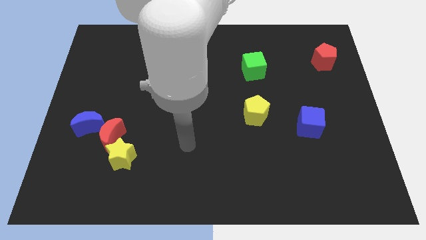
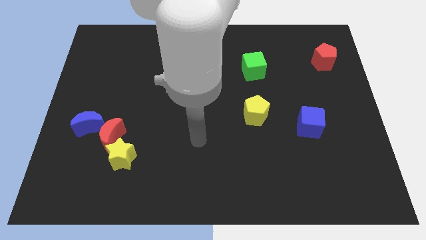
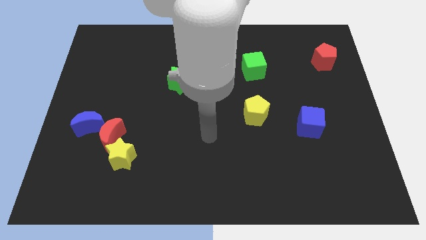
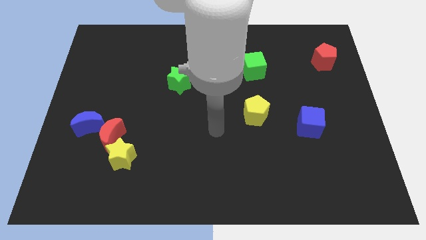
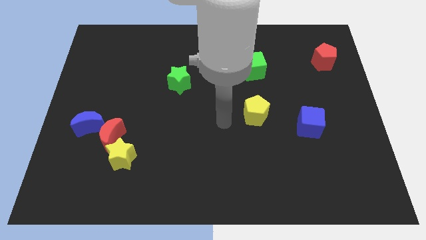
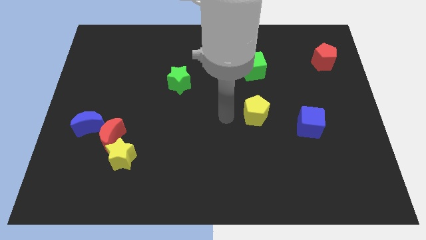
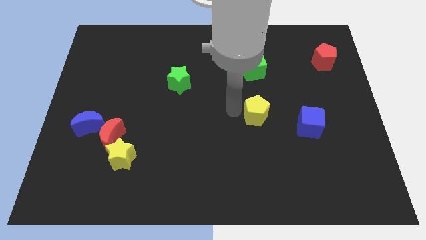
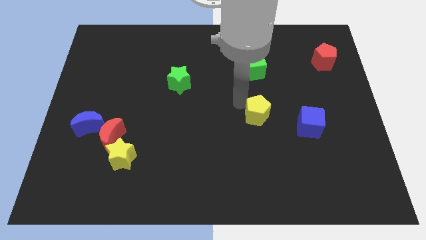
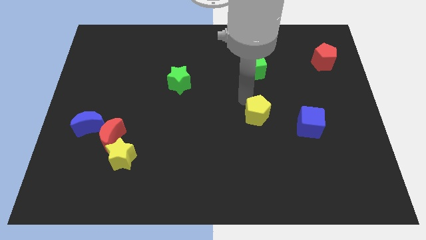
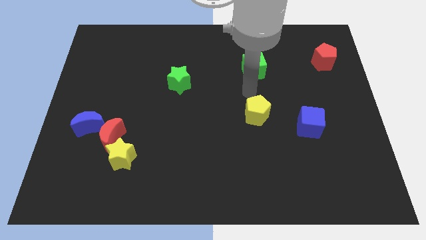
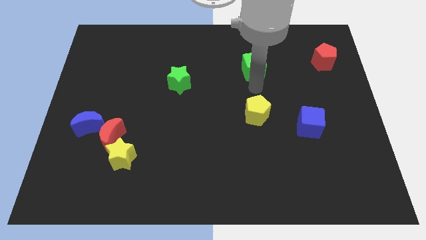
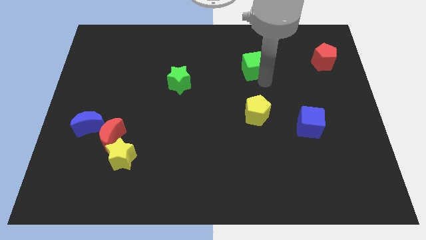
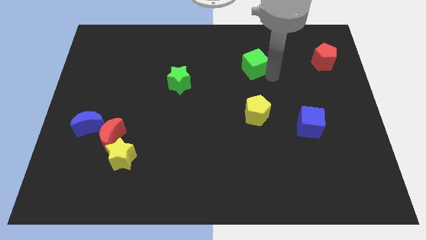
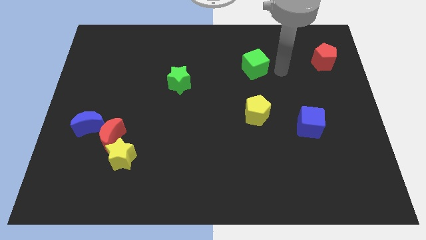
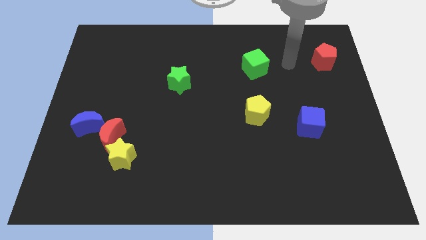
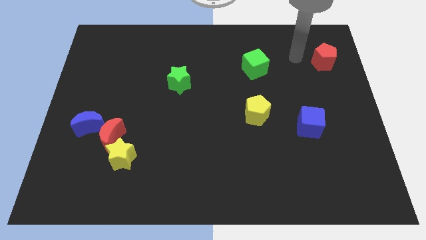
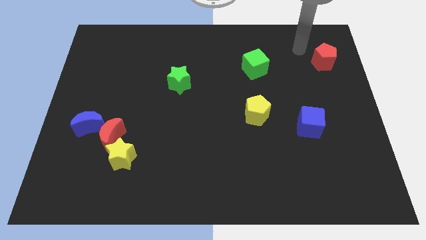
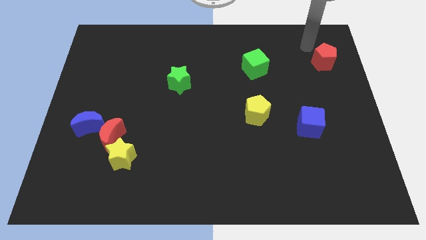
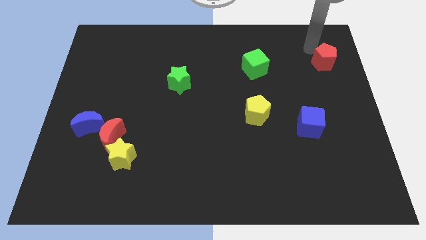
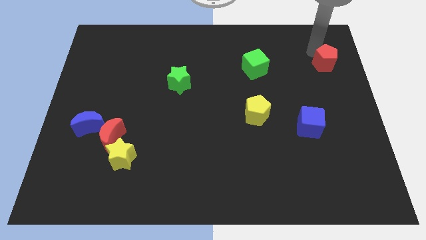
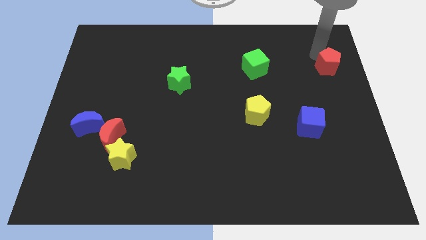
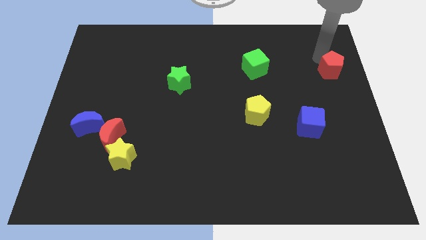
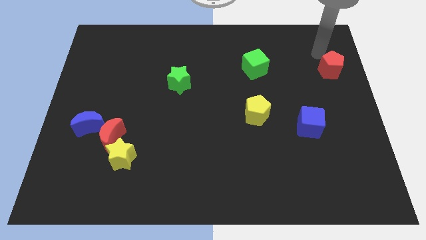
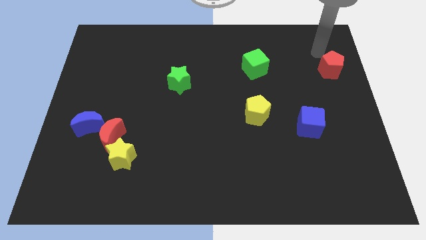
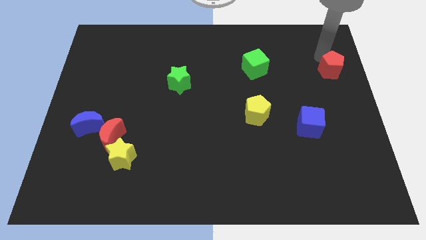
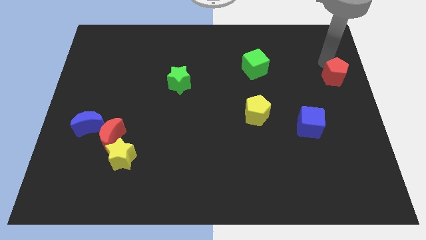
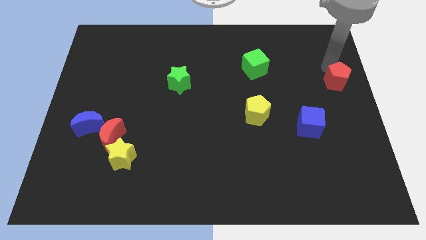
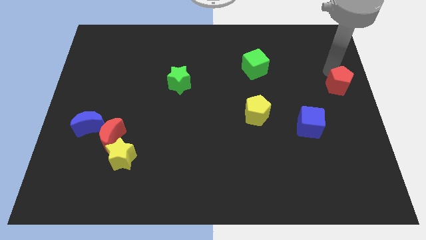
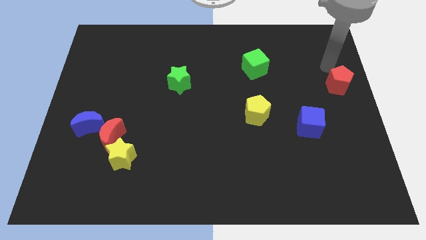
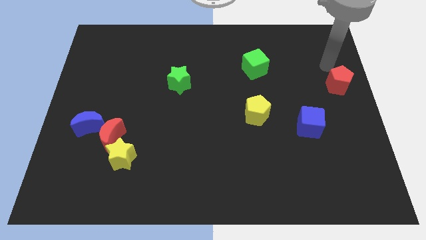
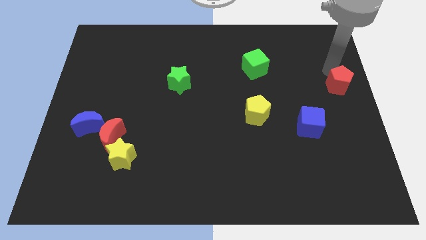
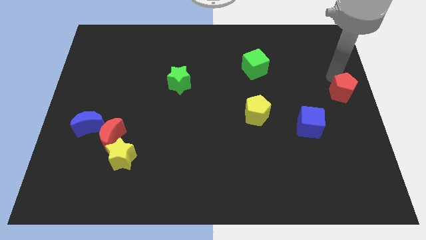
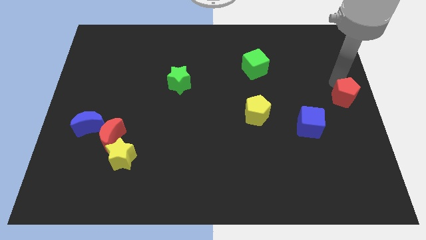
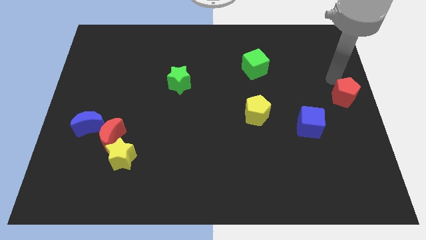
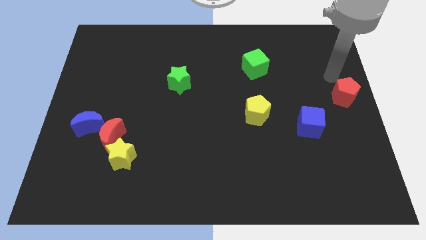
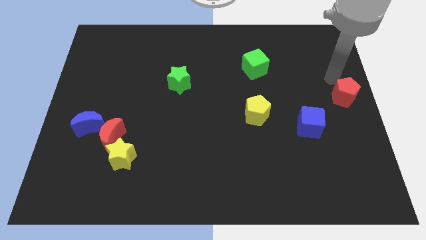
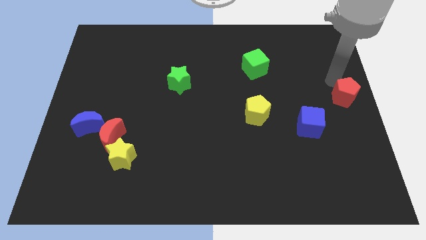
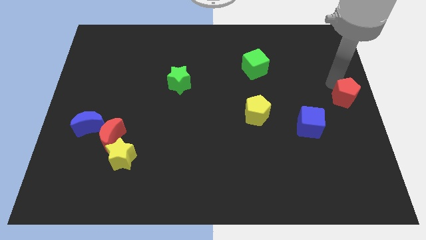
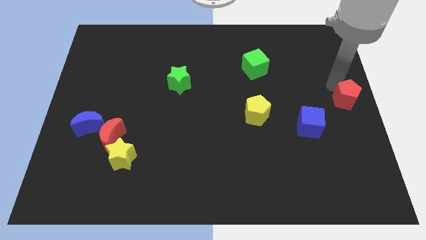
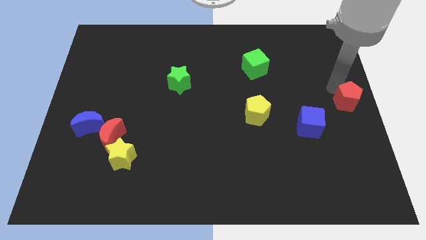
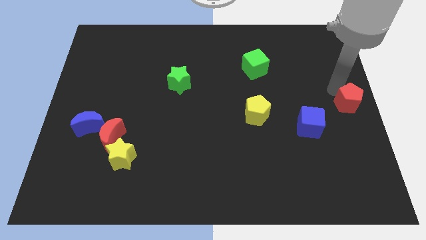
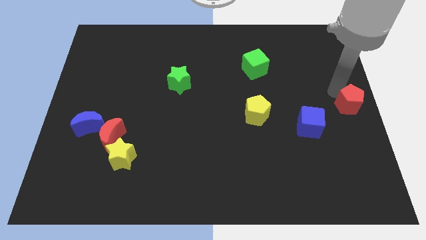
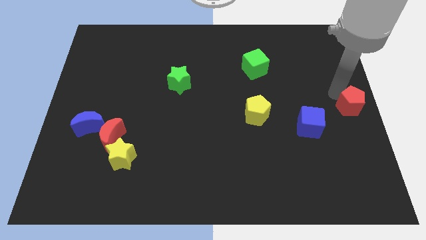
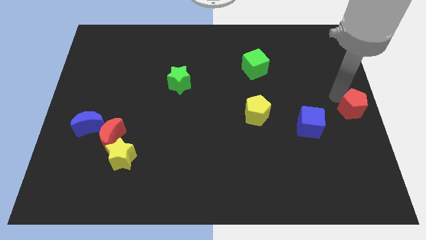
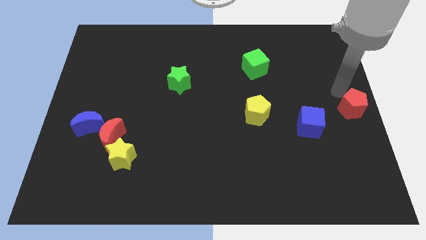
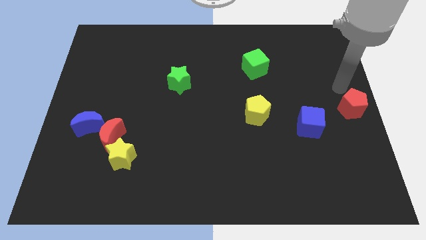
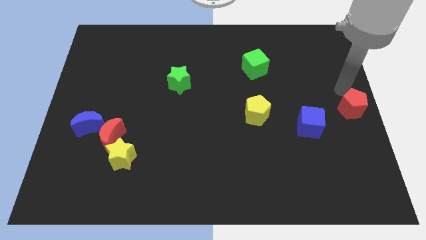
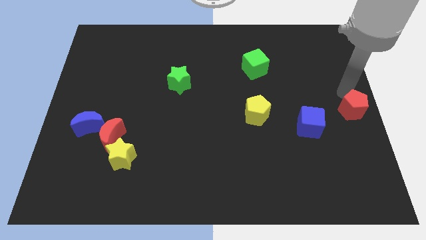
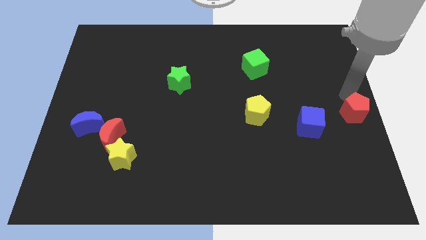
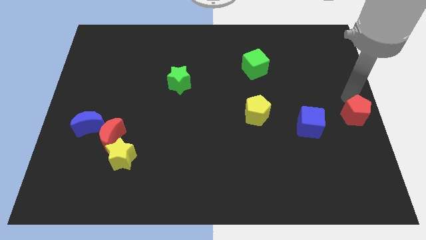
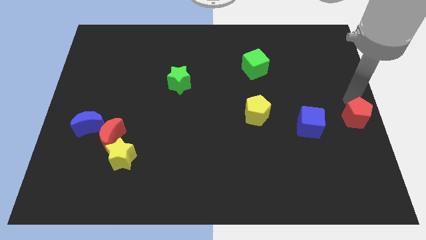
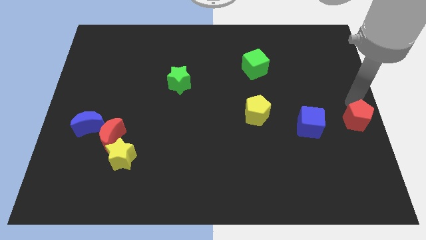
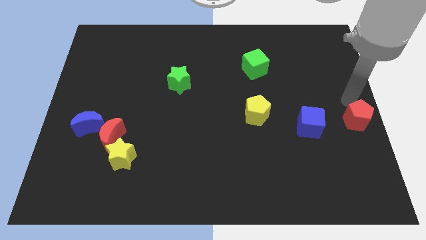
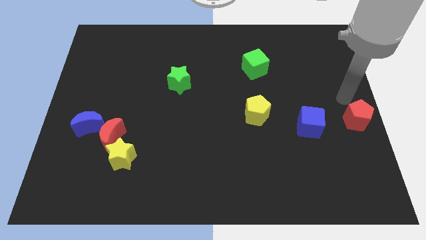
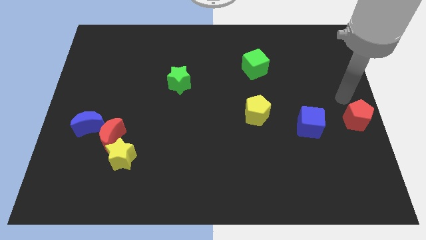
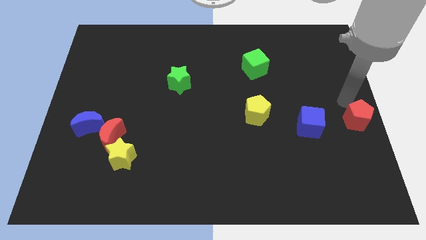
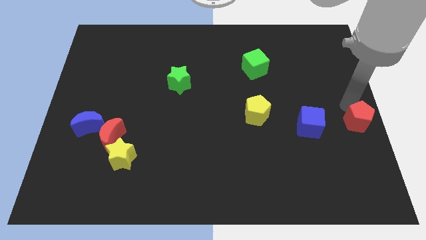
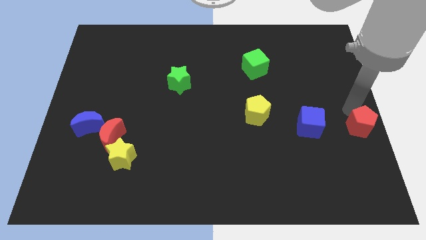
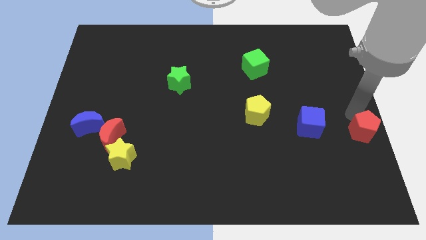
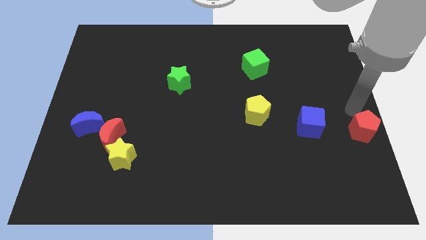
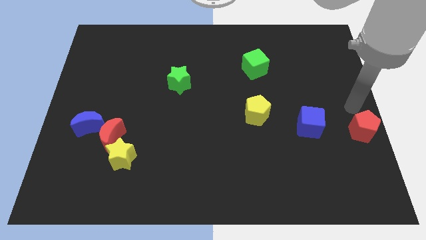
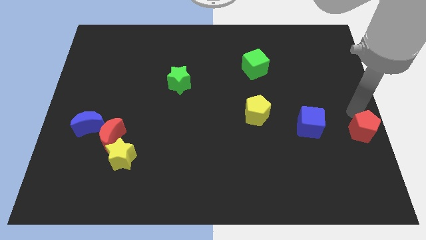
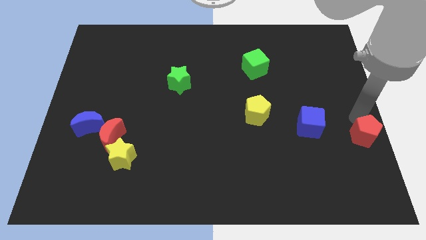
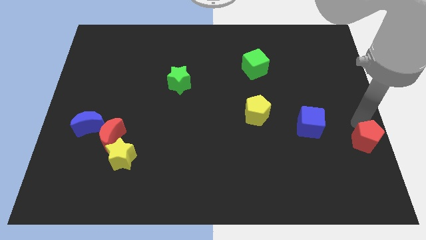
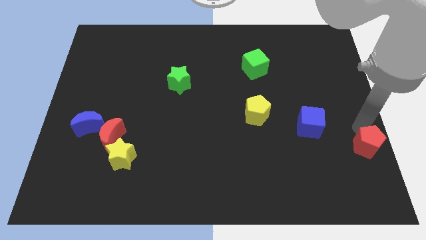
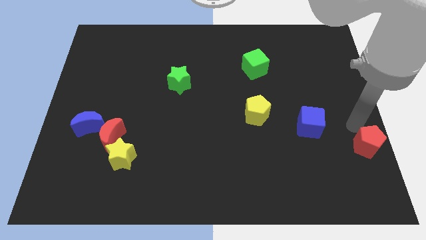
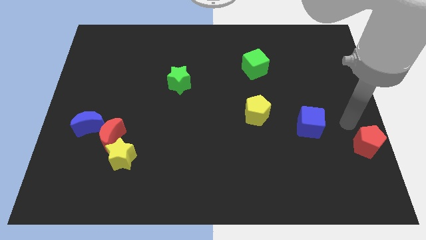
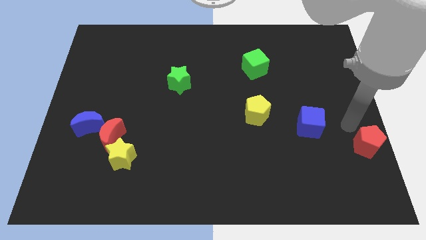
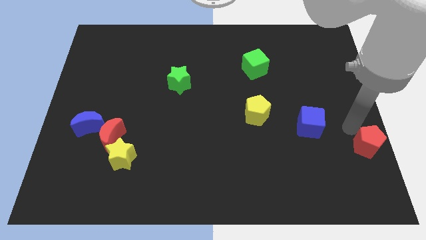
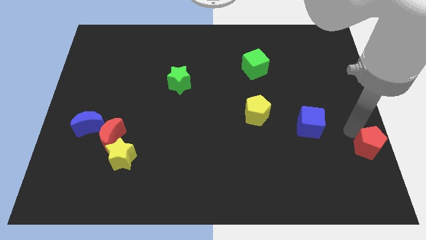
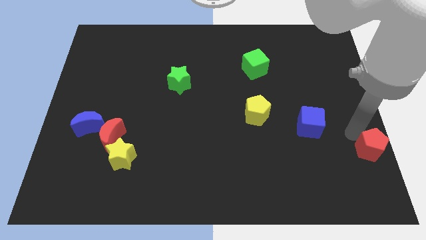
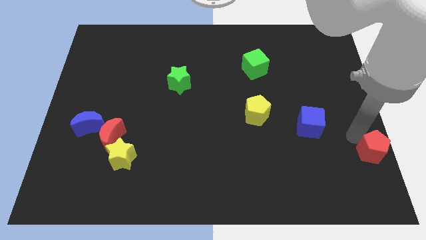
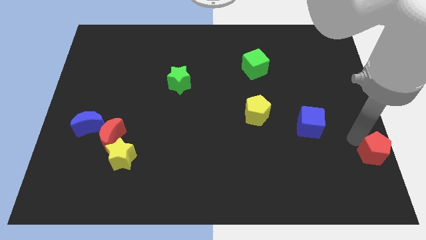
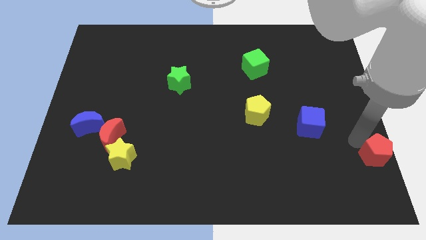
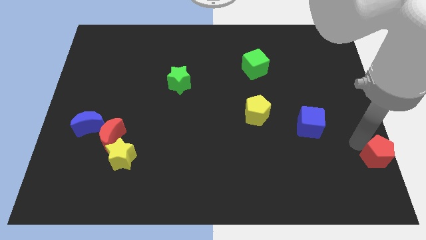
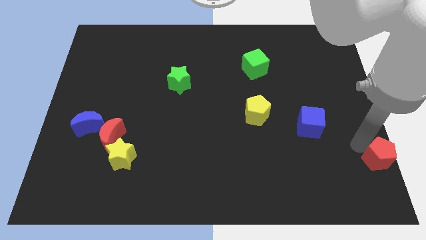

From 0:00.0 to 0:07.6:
push the red pentagon to the bottom right of the board
